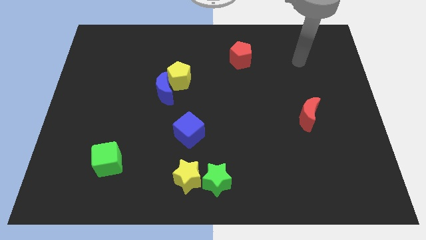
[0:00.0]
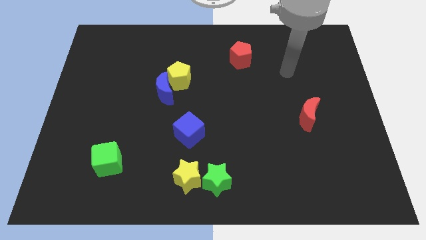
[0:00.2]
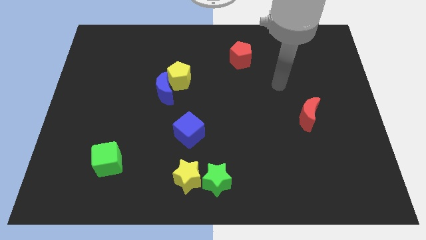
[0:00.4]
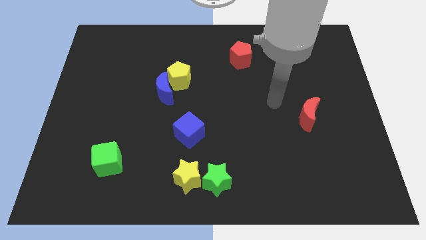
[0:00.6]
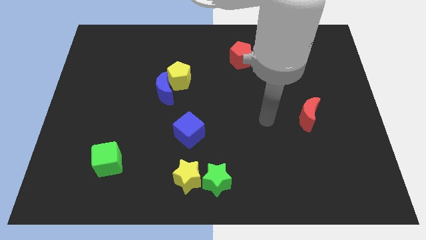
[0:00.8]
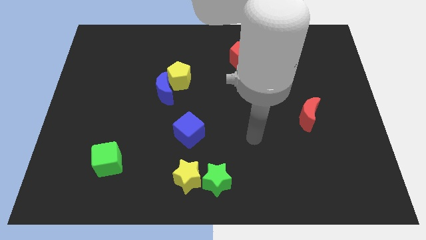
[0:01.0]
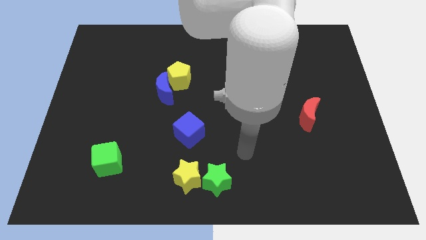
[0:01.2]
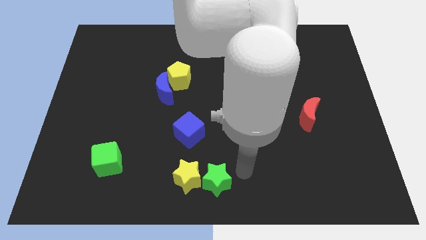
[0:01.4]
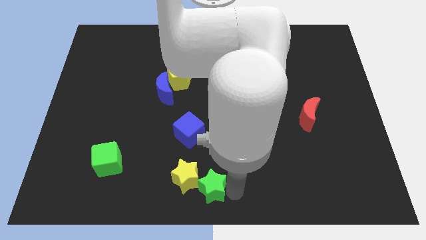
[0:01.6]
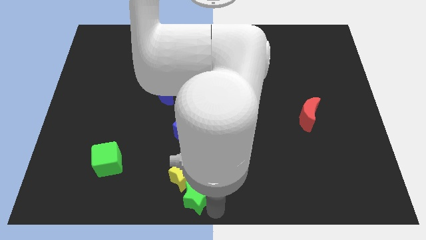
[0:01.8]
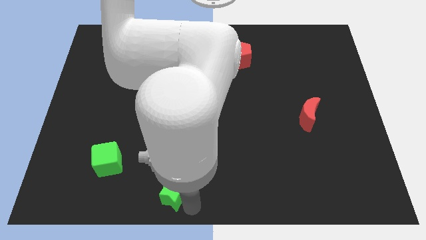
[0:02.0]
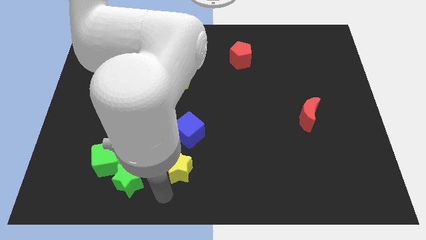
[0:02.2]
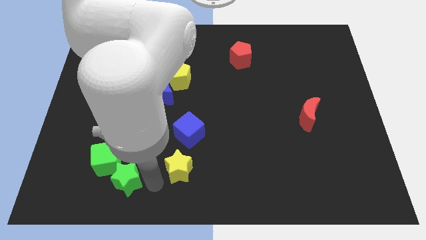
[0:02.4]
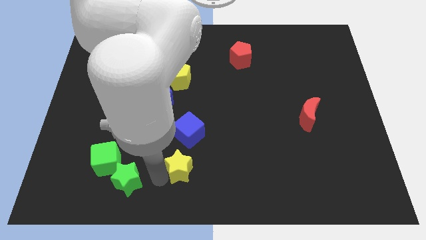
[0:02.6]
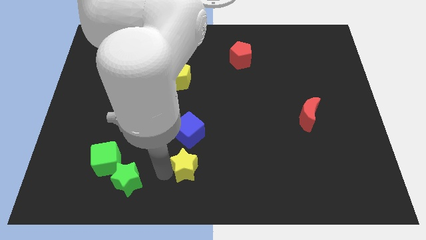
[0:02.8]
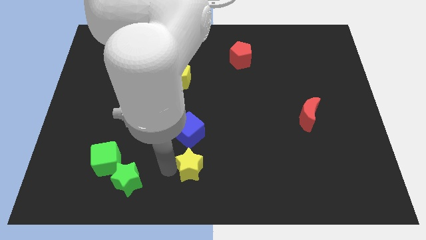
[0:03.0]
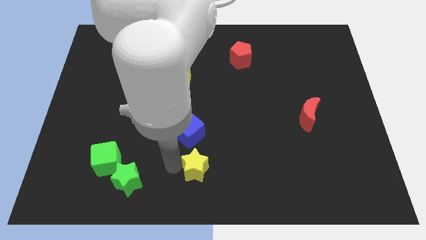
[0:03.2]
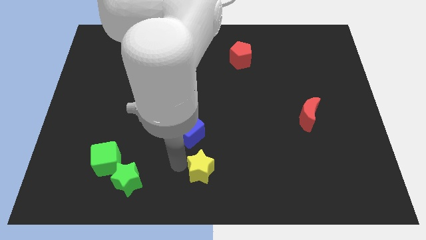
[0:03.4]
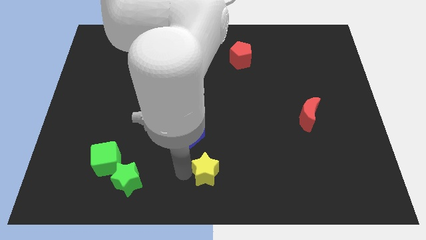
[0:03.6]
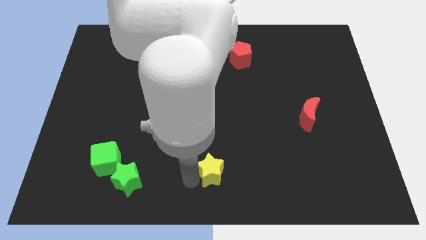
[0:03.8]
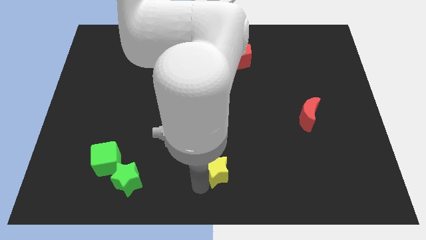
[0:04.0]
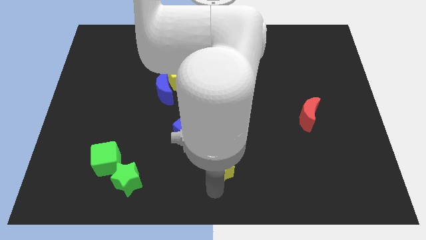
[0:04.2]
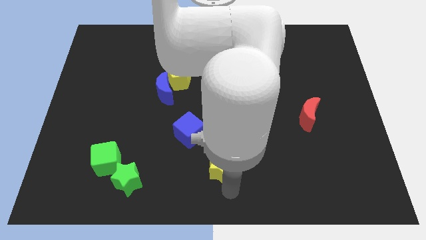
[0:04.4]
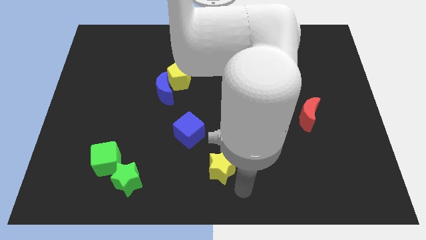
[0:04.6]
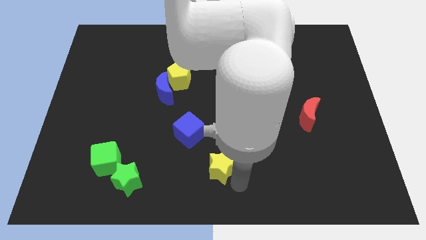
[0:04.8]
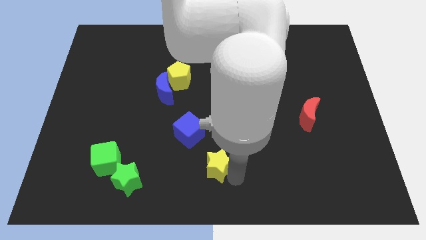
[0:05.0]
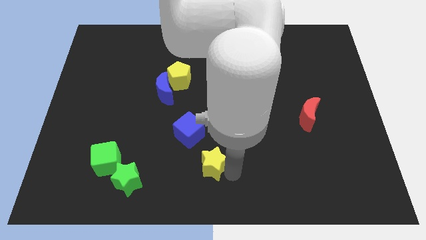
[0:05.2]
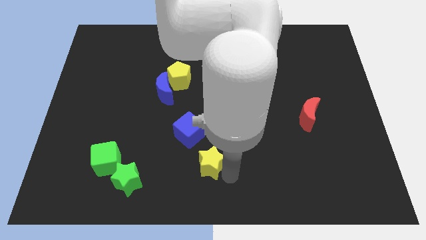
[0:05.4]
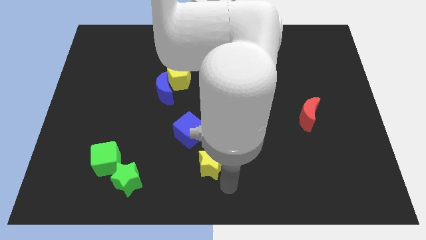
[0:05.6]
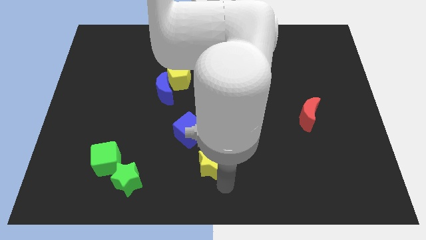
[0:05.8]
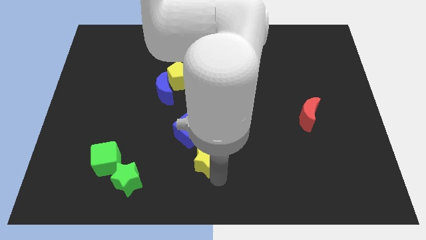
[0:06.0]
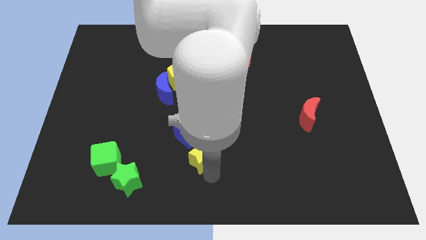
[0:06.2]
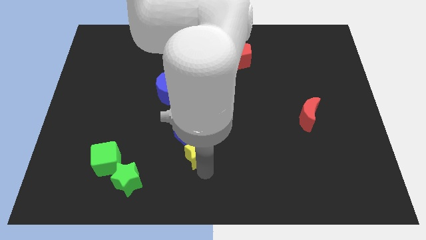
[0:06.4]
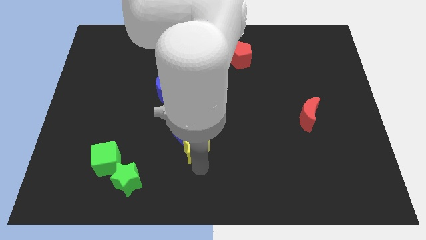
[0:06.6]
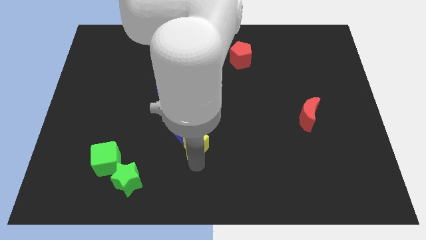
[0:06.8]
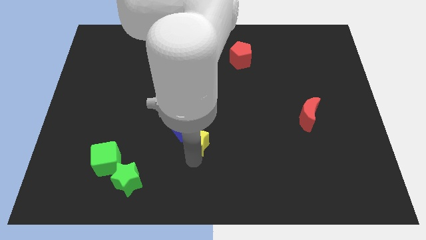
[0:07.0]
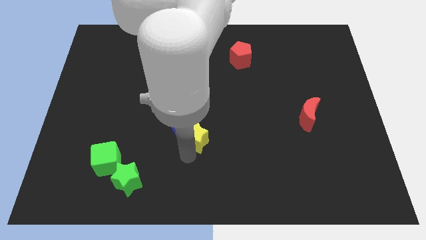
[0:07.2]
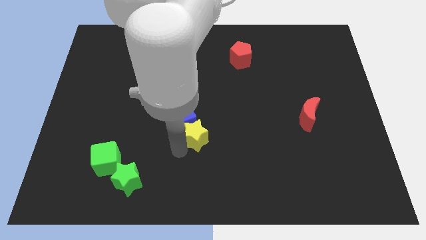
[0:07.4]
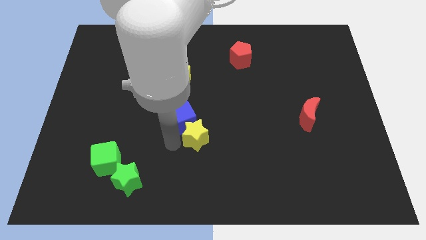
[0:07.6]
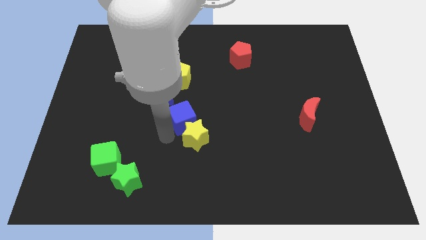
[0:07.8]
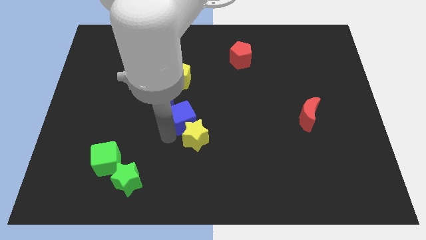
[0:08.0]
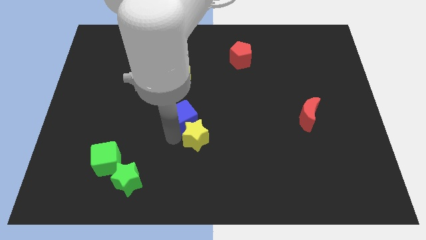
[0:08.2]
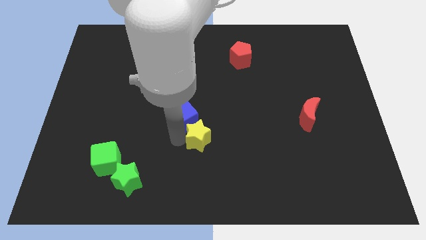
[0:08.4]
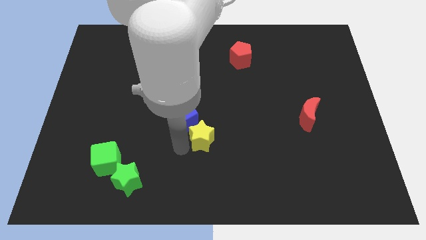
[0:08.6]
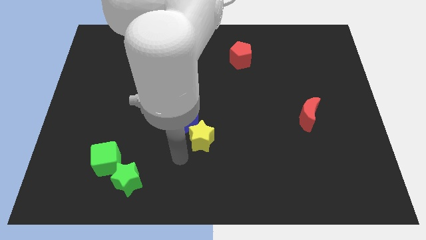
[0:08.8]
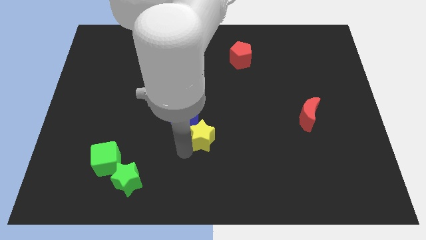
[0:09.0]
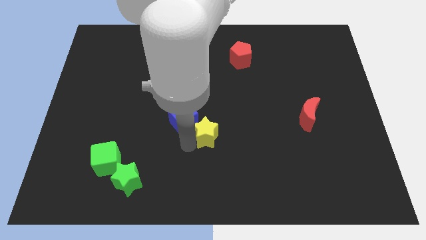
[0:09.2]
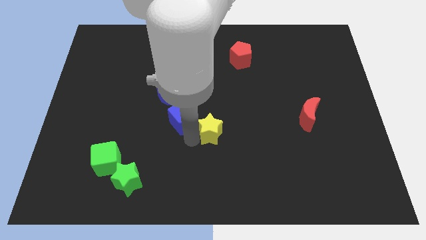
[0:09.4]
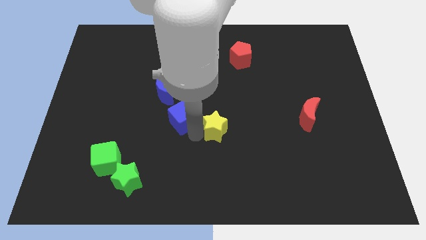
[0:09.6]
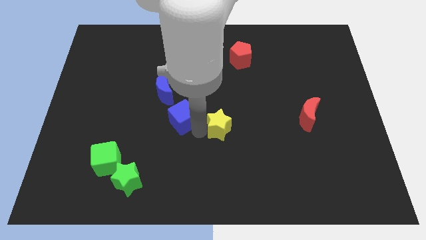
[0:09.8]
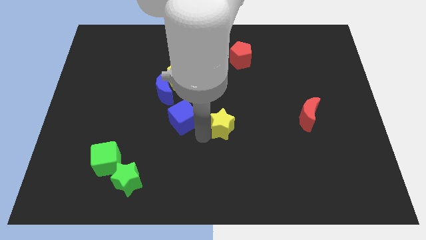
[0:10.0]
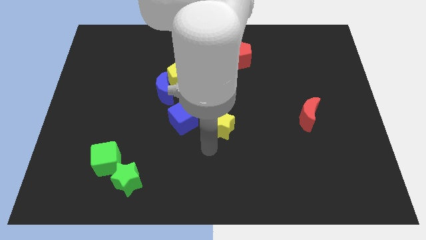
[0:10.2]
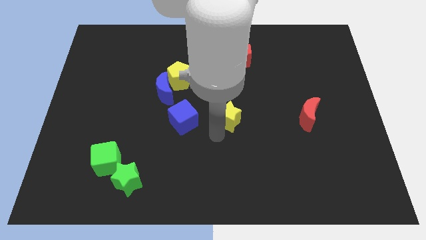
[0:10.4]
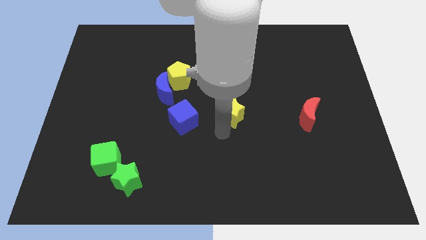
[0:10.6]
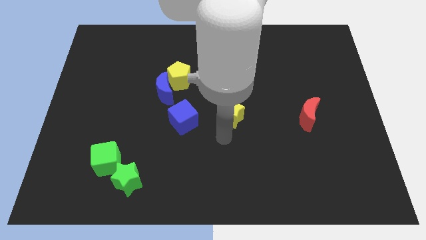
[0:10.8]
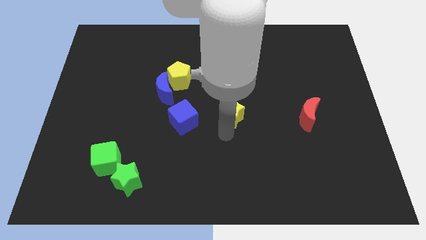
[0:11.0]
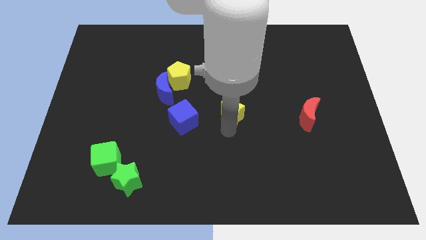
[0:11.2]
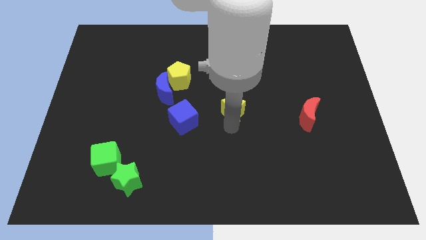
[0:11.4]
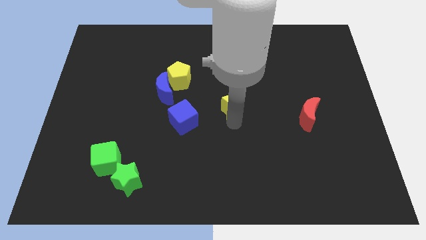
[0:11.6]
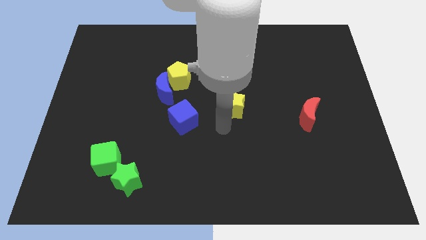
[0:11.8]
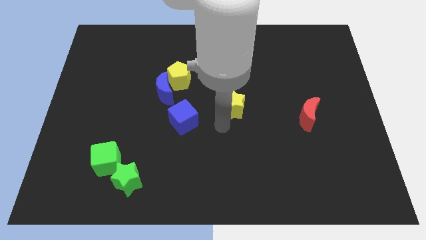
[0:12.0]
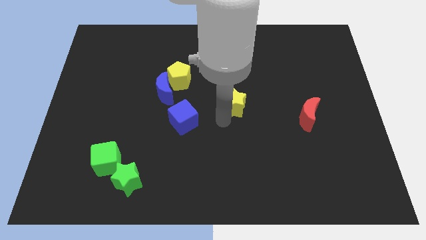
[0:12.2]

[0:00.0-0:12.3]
put the yellow star below the red pentagon
